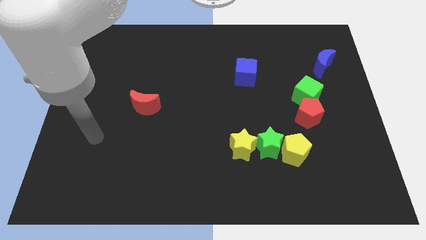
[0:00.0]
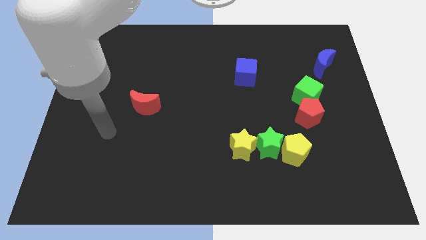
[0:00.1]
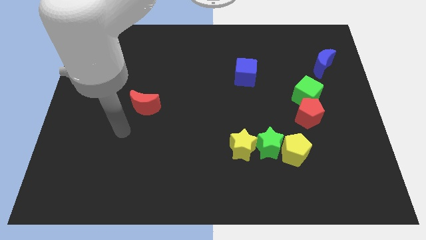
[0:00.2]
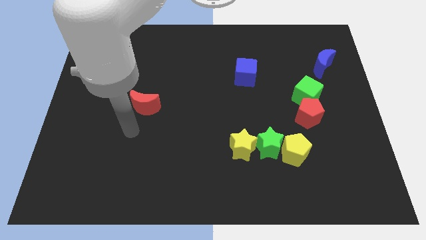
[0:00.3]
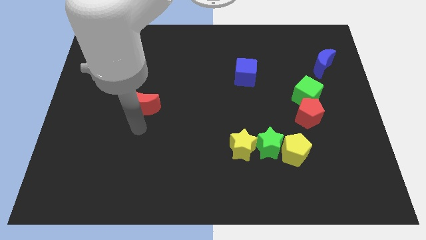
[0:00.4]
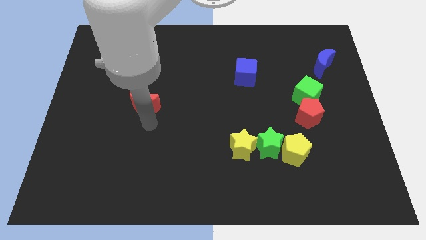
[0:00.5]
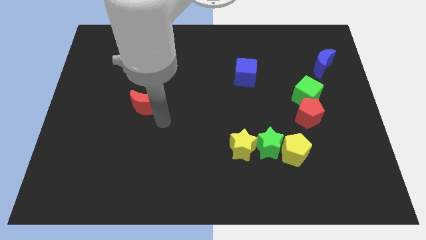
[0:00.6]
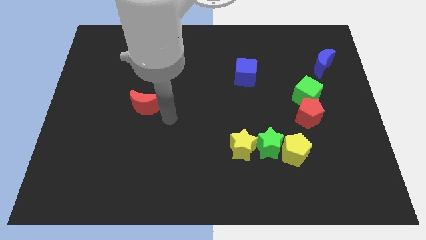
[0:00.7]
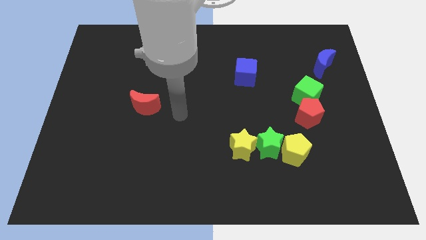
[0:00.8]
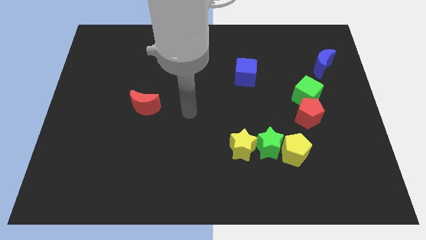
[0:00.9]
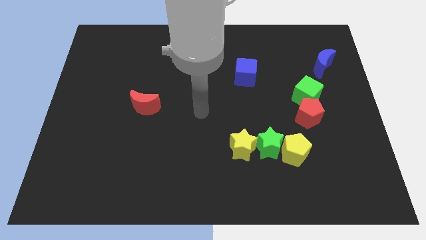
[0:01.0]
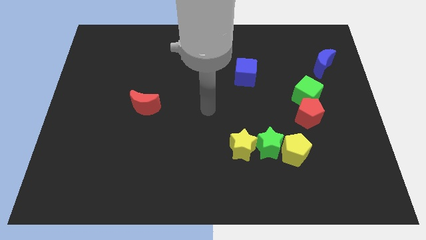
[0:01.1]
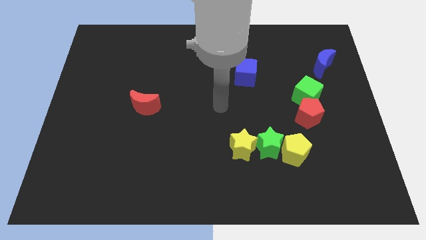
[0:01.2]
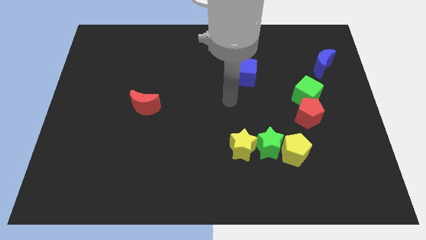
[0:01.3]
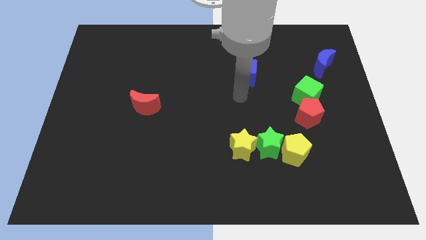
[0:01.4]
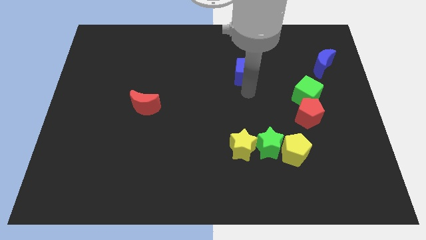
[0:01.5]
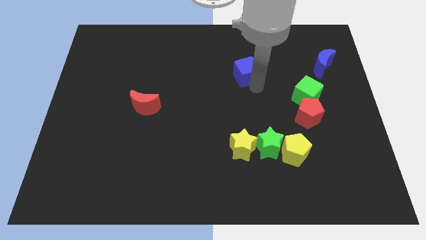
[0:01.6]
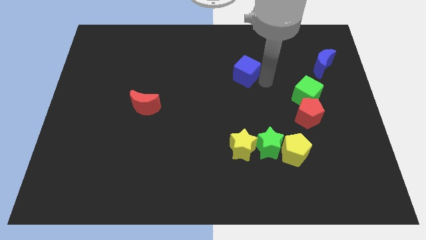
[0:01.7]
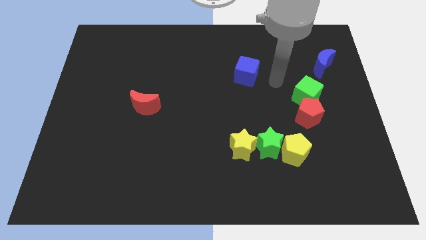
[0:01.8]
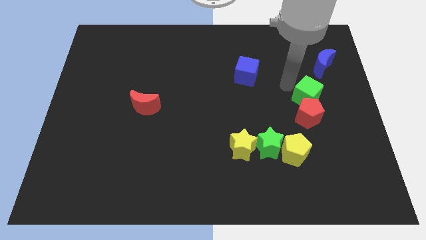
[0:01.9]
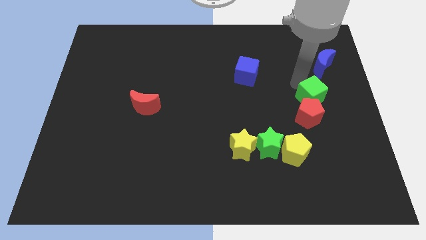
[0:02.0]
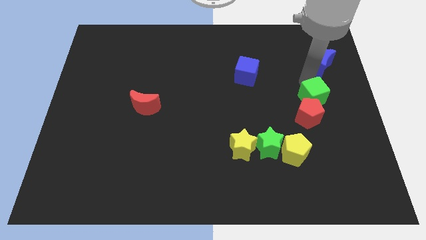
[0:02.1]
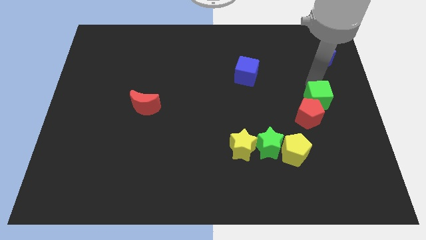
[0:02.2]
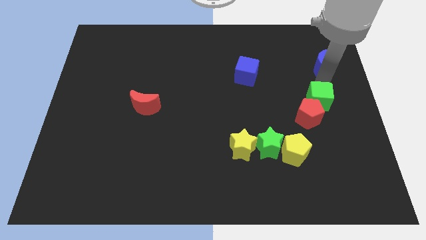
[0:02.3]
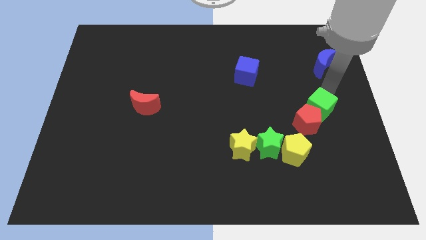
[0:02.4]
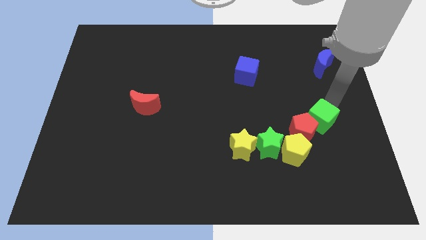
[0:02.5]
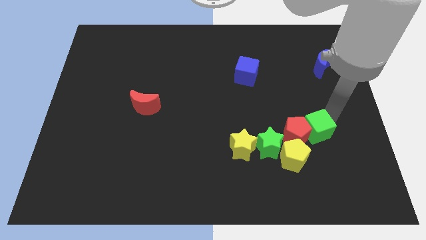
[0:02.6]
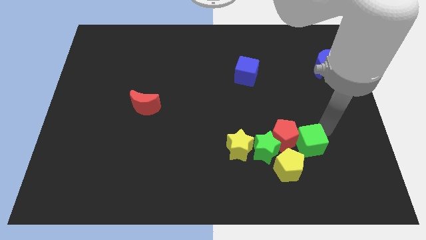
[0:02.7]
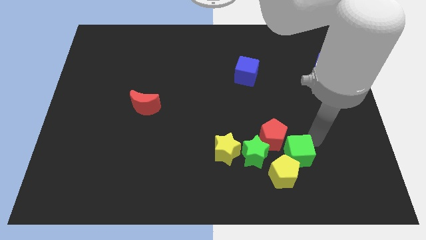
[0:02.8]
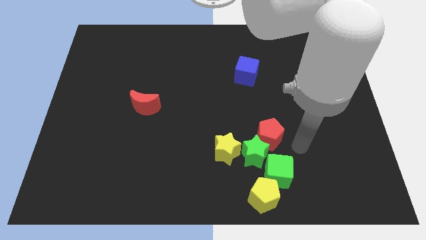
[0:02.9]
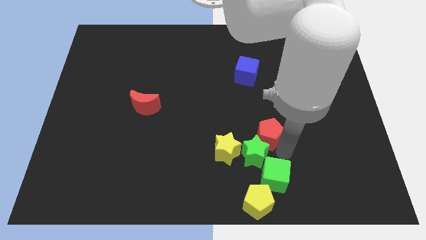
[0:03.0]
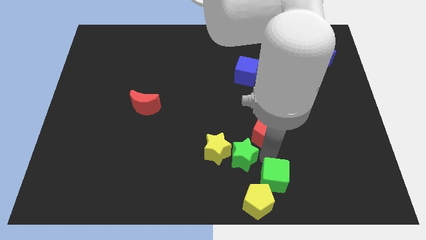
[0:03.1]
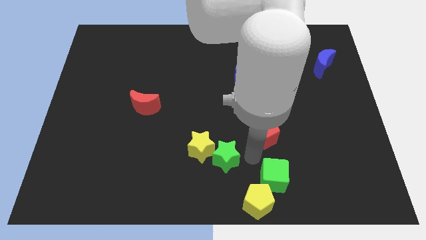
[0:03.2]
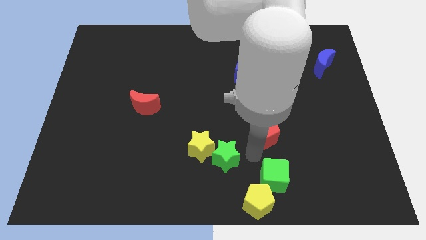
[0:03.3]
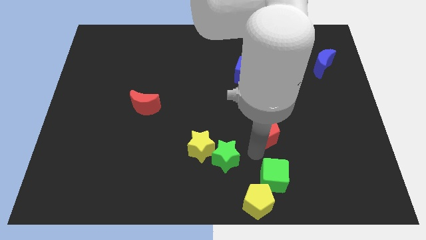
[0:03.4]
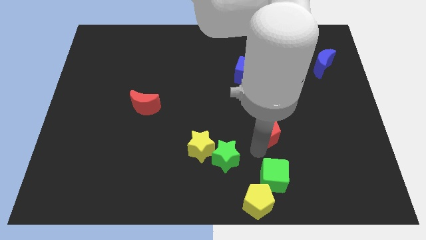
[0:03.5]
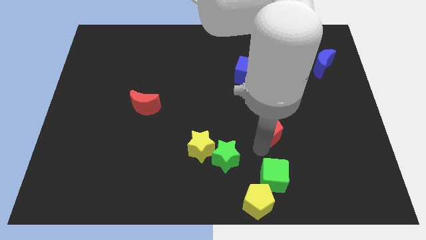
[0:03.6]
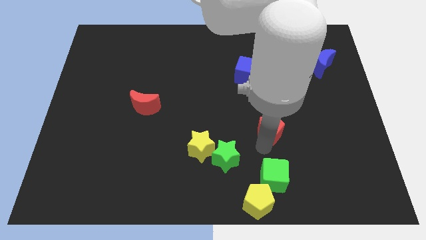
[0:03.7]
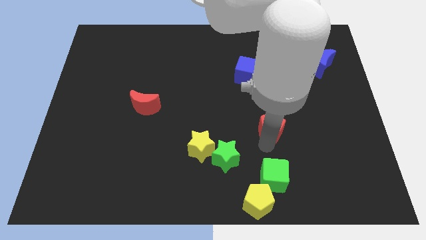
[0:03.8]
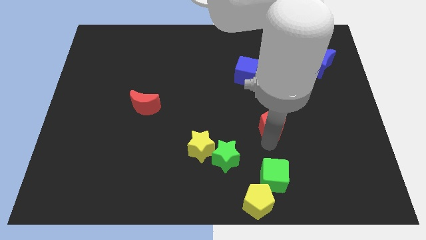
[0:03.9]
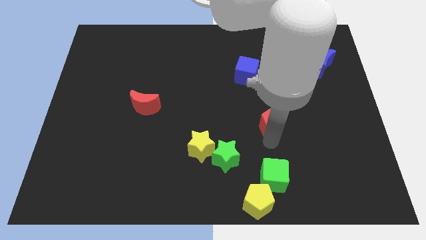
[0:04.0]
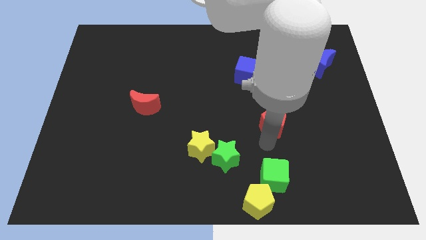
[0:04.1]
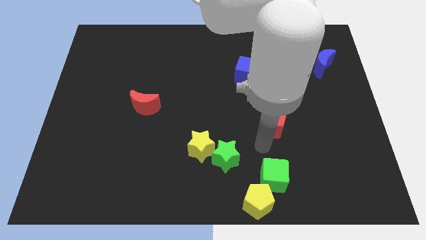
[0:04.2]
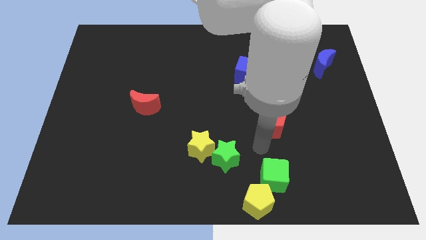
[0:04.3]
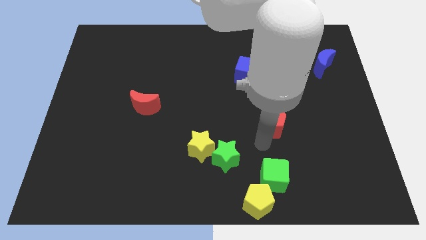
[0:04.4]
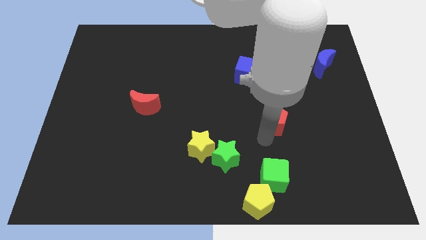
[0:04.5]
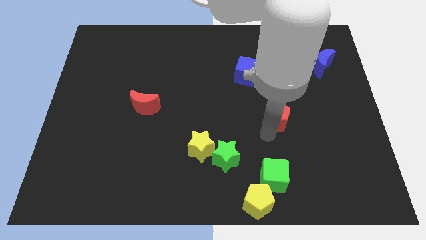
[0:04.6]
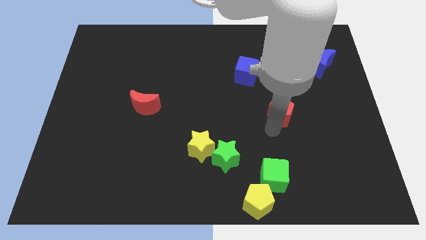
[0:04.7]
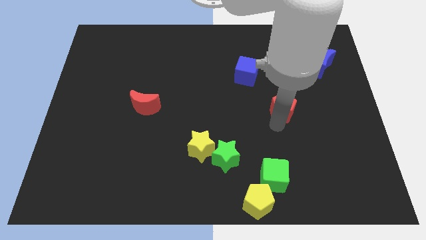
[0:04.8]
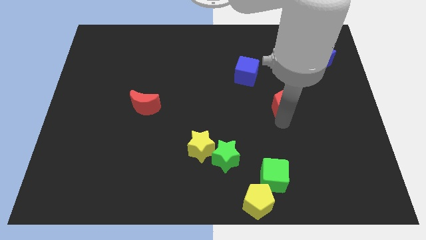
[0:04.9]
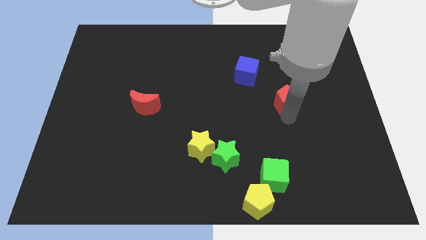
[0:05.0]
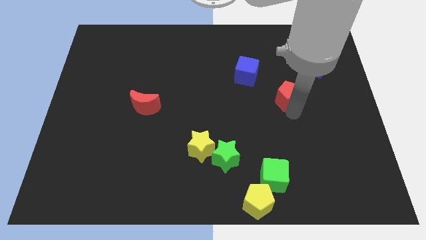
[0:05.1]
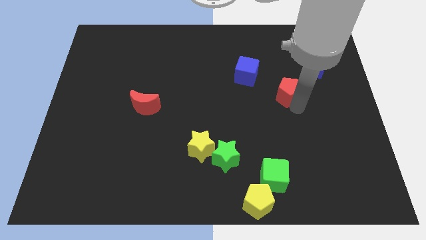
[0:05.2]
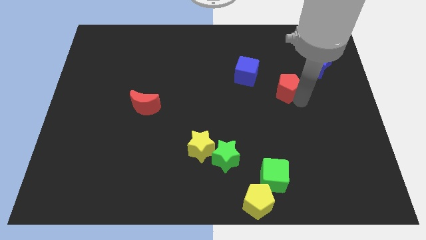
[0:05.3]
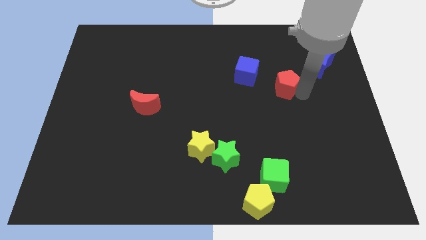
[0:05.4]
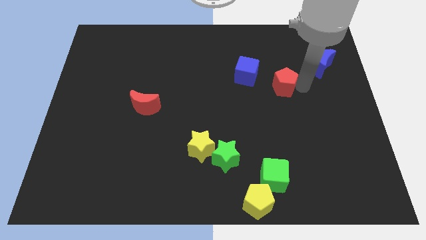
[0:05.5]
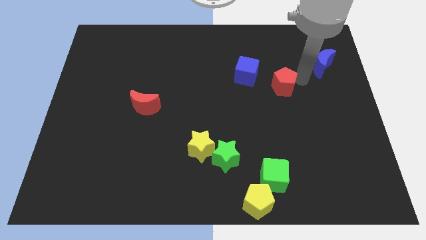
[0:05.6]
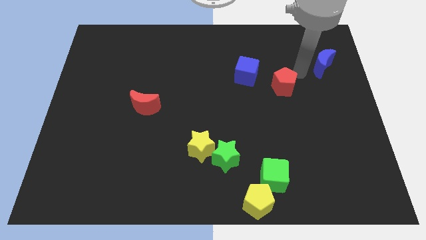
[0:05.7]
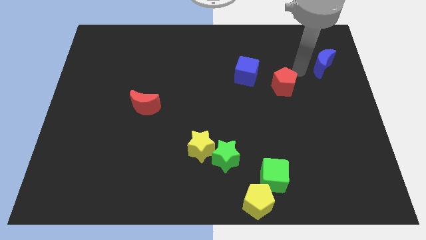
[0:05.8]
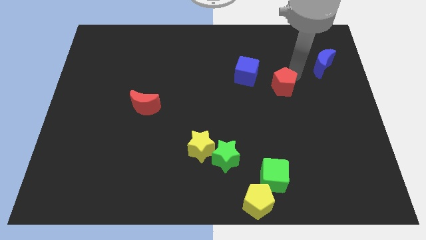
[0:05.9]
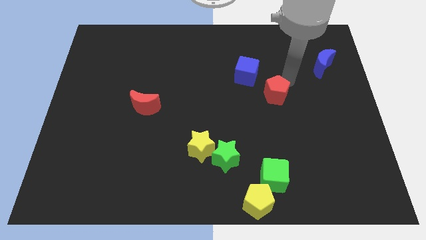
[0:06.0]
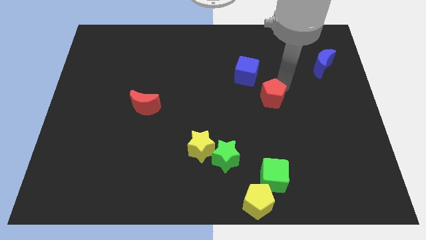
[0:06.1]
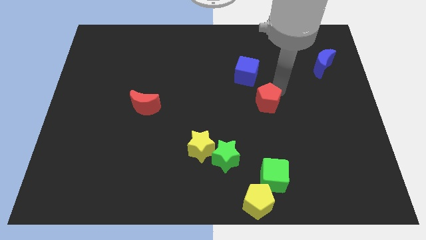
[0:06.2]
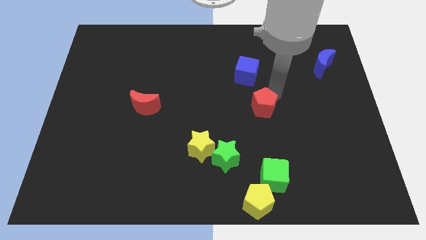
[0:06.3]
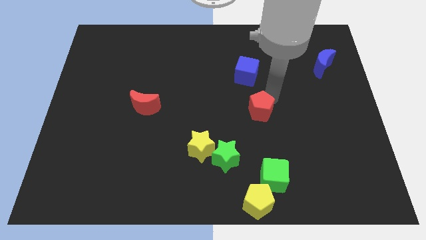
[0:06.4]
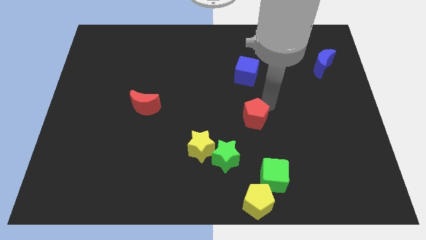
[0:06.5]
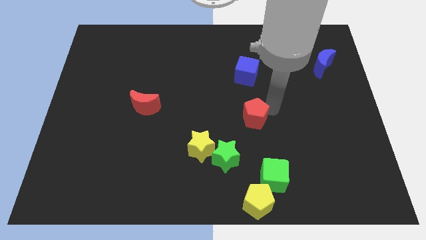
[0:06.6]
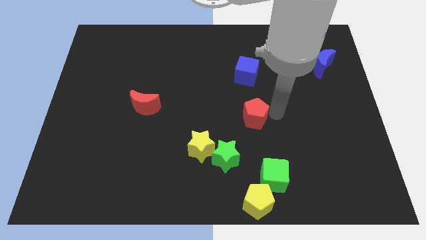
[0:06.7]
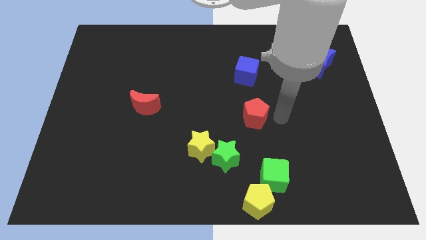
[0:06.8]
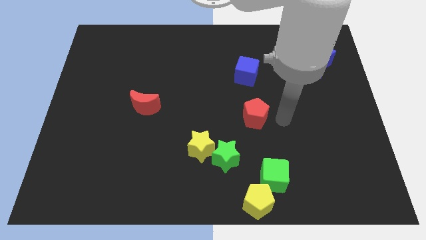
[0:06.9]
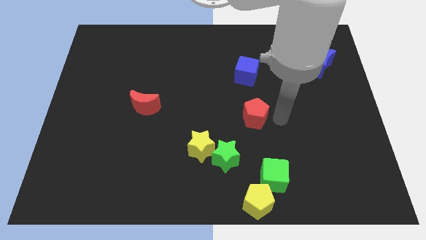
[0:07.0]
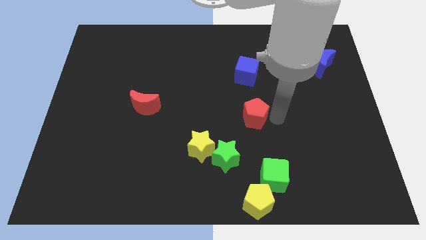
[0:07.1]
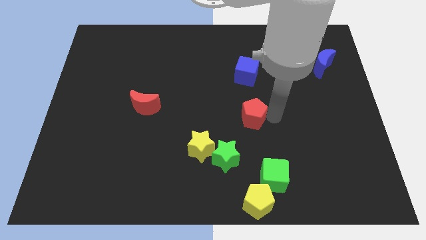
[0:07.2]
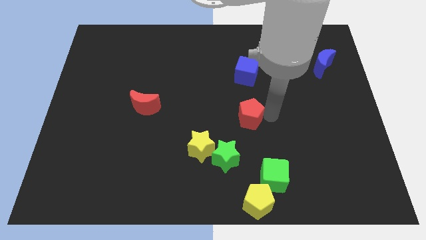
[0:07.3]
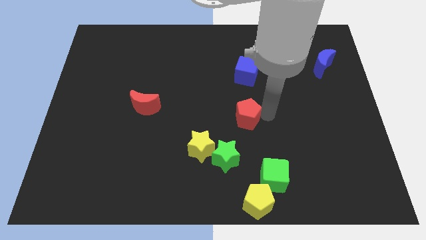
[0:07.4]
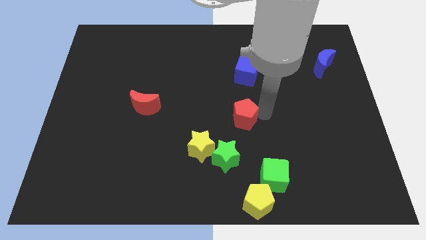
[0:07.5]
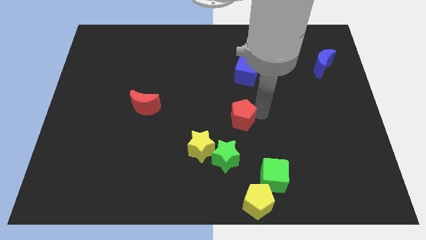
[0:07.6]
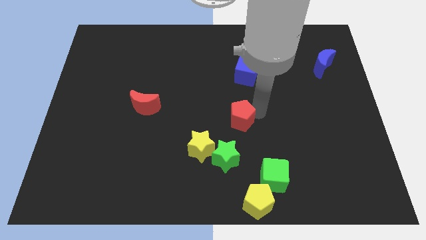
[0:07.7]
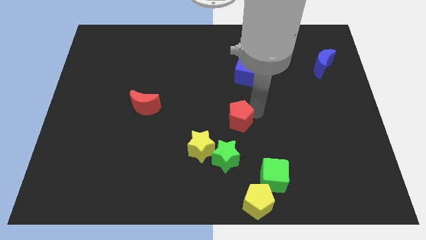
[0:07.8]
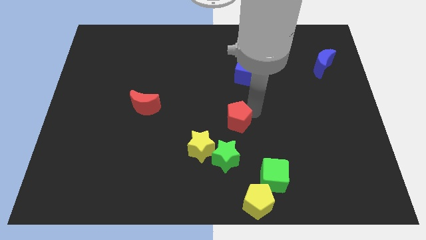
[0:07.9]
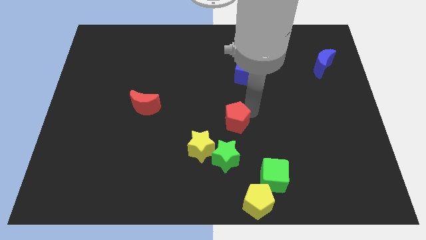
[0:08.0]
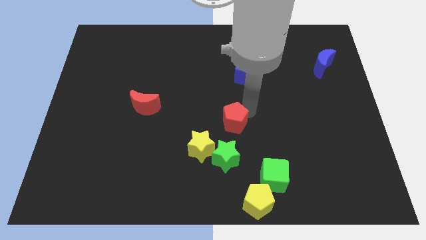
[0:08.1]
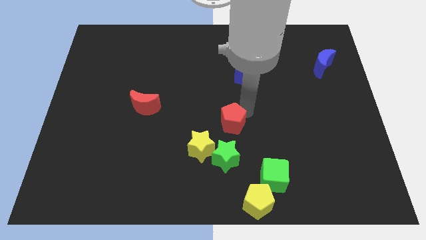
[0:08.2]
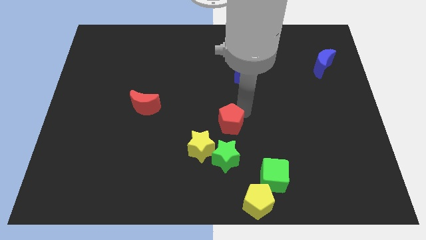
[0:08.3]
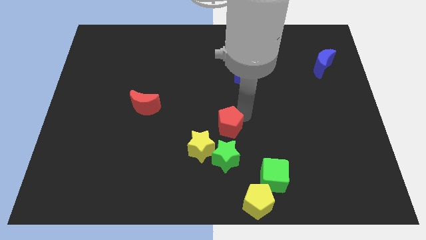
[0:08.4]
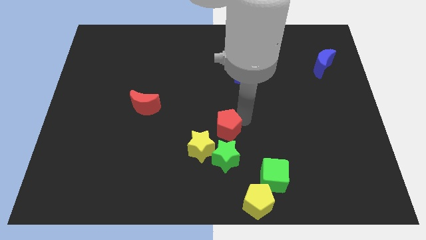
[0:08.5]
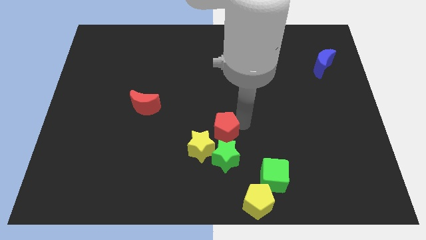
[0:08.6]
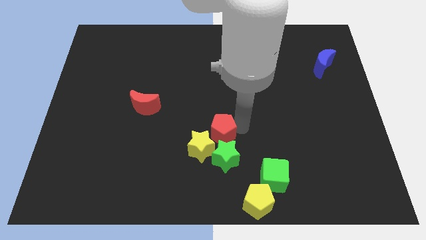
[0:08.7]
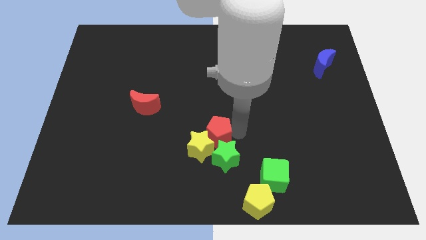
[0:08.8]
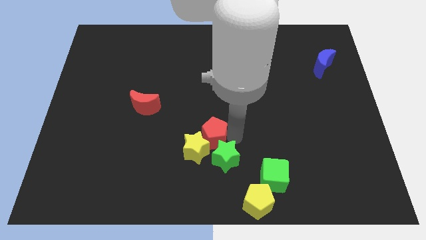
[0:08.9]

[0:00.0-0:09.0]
push the red pentagon to the left
